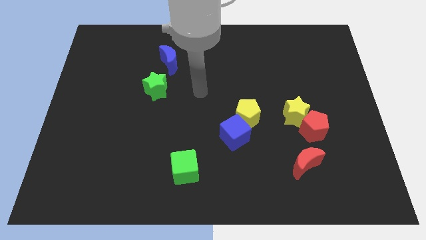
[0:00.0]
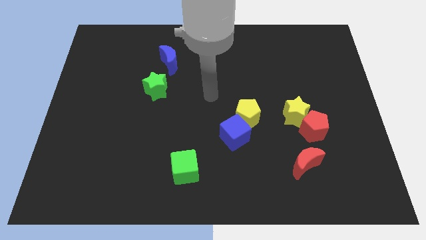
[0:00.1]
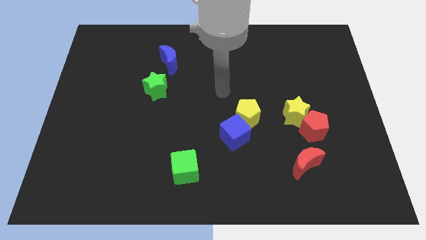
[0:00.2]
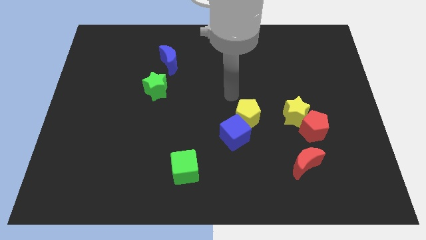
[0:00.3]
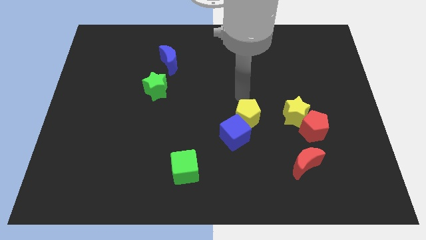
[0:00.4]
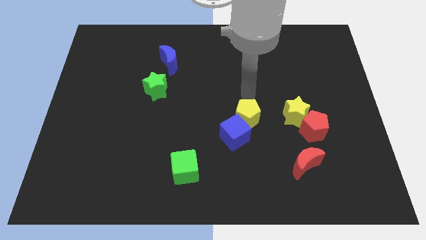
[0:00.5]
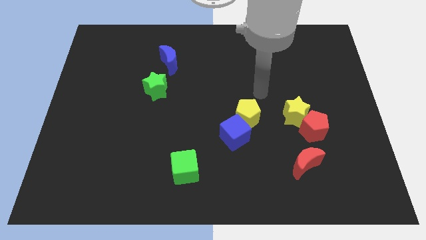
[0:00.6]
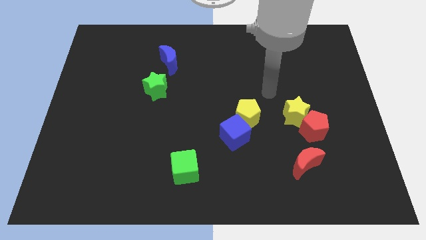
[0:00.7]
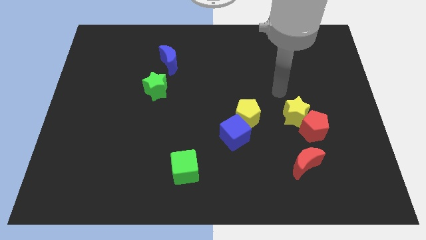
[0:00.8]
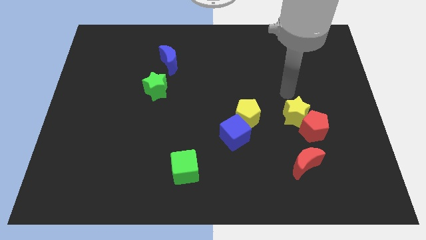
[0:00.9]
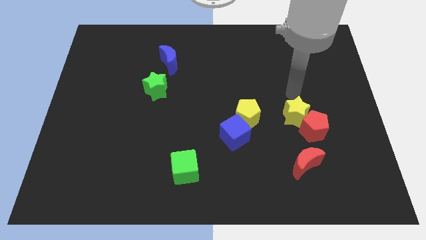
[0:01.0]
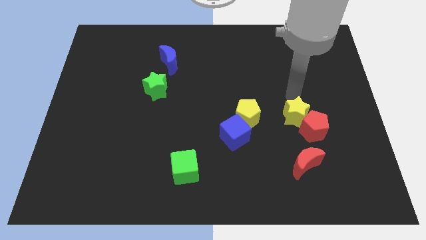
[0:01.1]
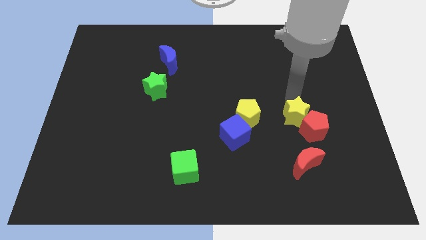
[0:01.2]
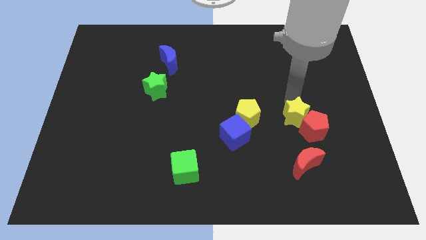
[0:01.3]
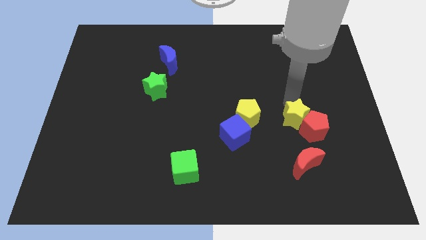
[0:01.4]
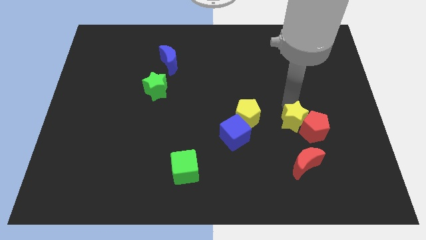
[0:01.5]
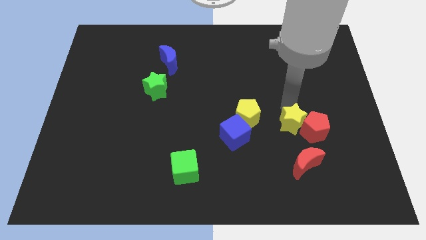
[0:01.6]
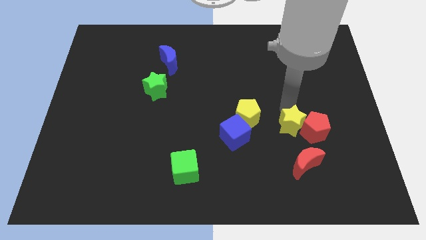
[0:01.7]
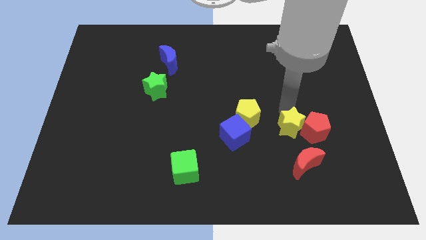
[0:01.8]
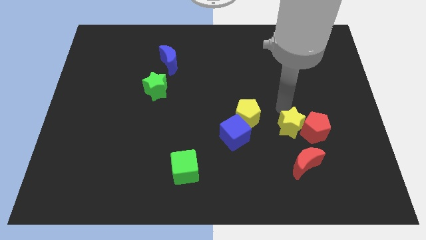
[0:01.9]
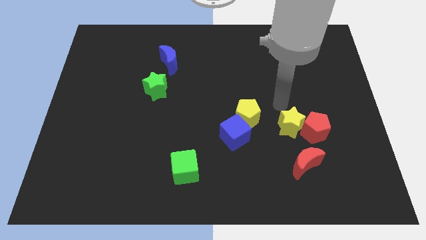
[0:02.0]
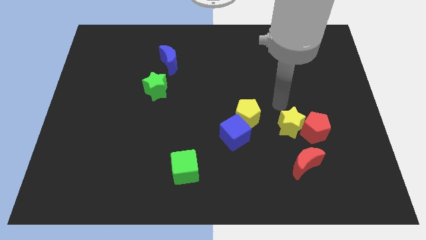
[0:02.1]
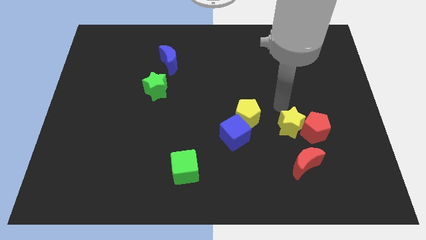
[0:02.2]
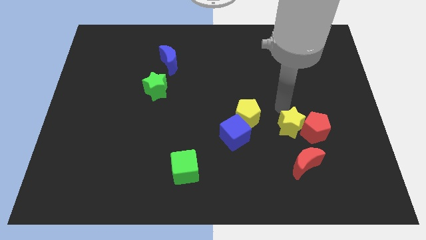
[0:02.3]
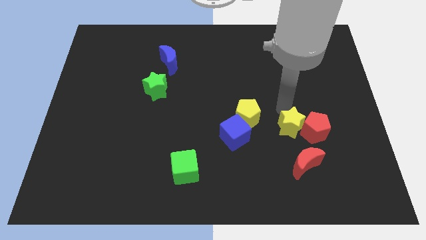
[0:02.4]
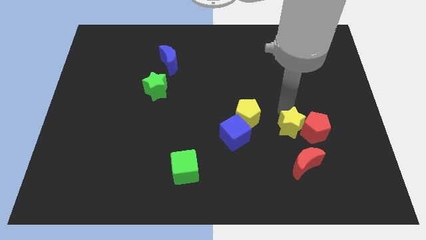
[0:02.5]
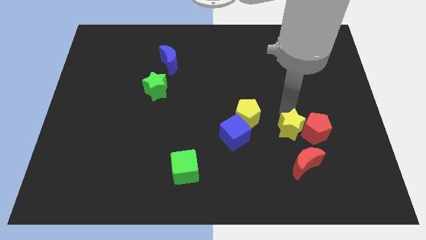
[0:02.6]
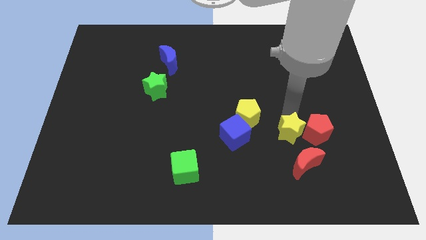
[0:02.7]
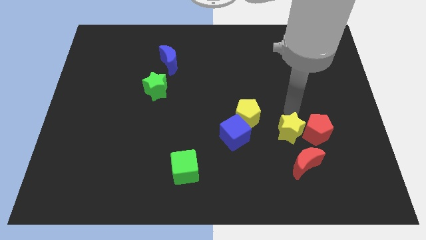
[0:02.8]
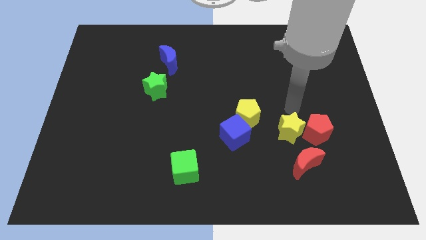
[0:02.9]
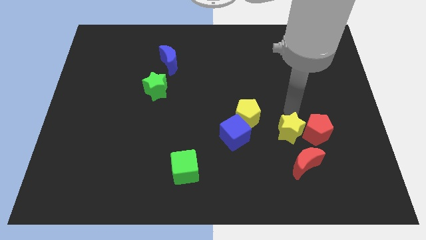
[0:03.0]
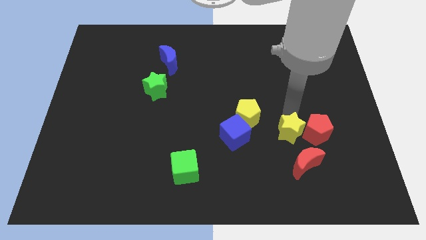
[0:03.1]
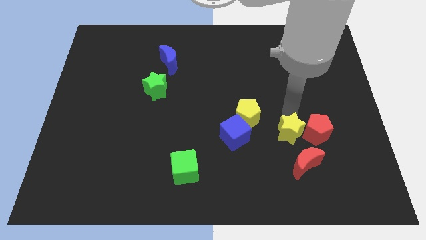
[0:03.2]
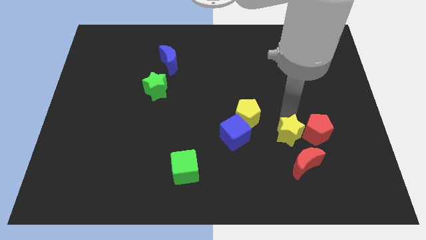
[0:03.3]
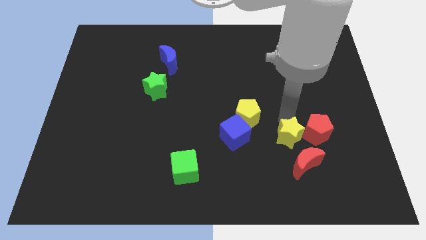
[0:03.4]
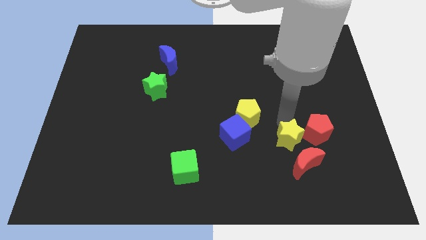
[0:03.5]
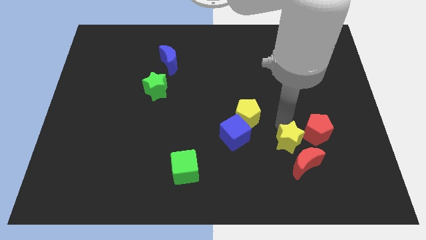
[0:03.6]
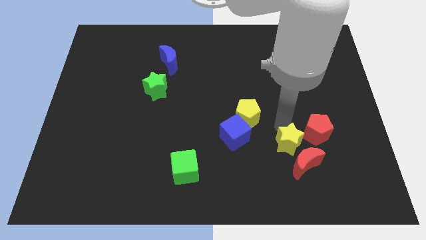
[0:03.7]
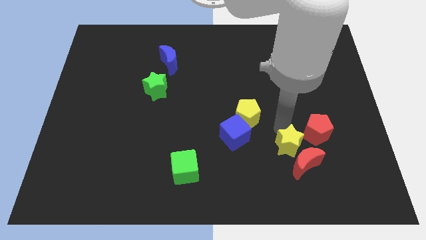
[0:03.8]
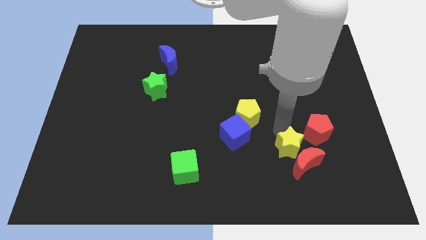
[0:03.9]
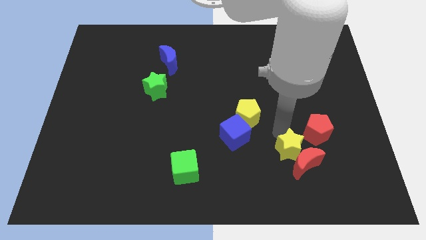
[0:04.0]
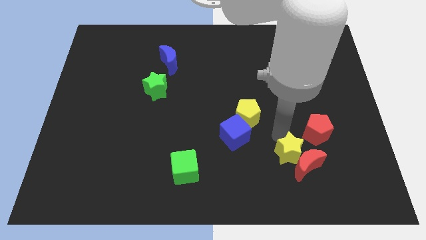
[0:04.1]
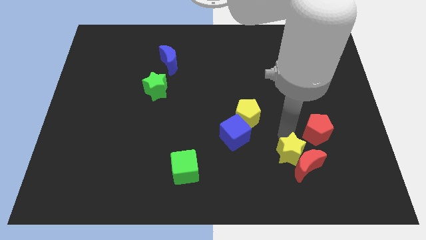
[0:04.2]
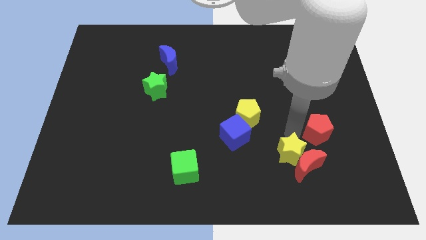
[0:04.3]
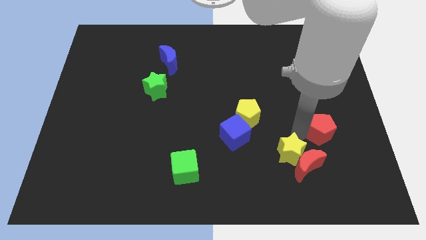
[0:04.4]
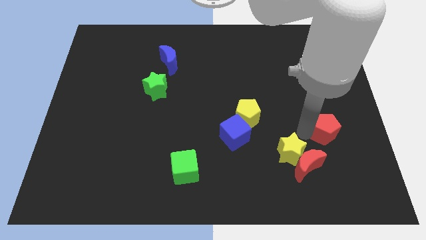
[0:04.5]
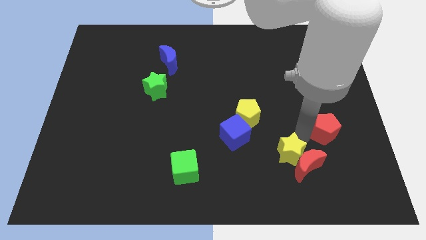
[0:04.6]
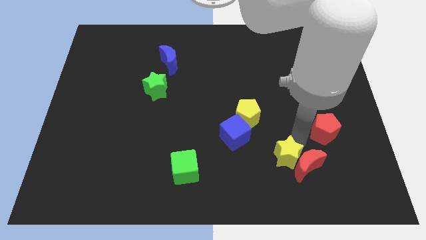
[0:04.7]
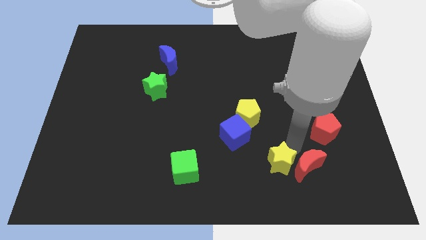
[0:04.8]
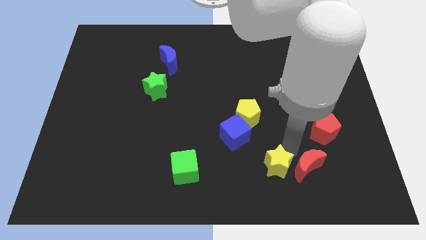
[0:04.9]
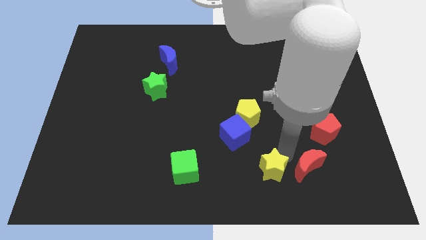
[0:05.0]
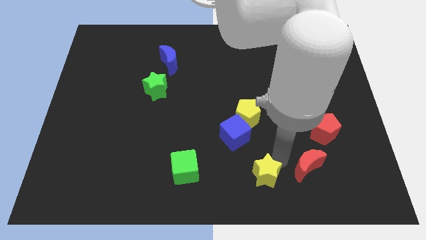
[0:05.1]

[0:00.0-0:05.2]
push the yellow star to the bottom

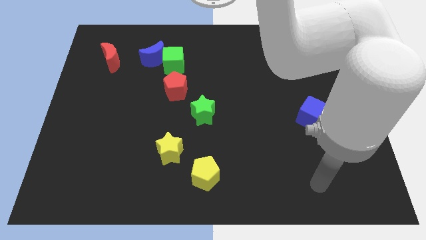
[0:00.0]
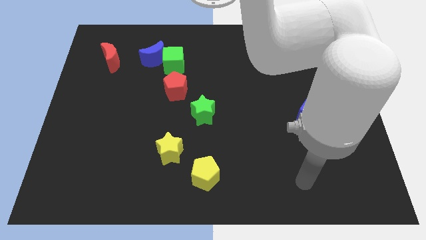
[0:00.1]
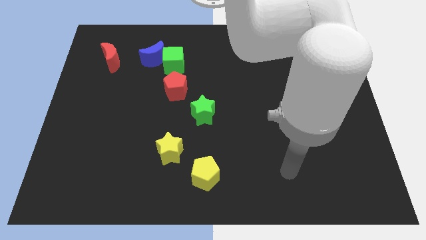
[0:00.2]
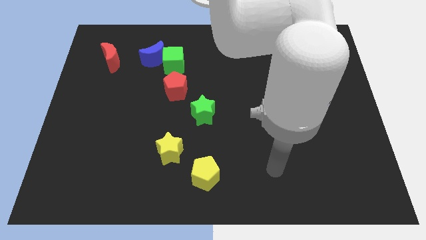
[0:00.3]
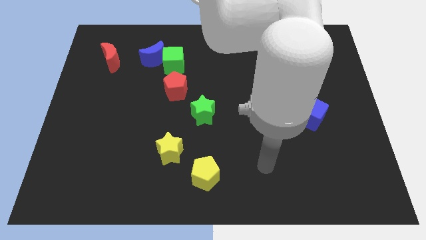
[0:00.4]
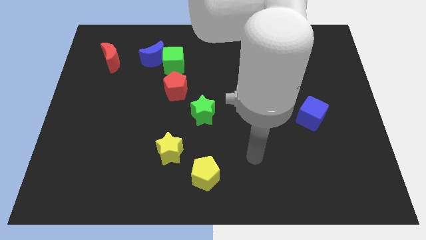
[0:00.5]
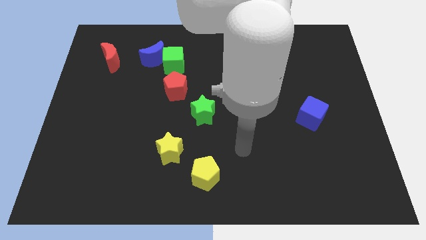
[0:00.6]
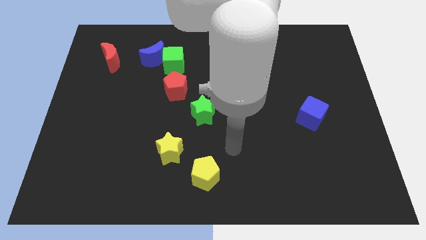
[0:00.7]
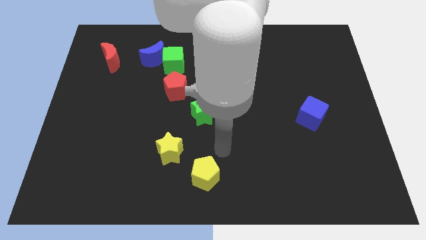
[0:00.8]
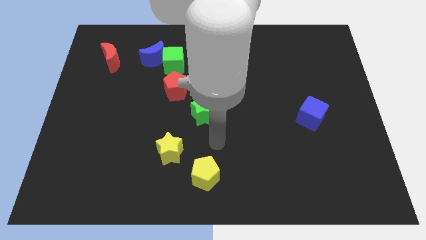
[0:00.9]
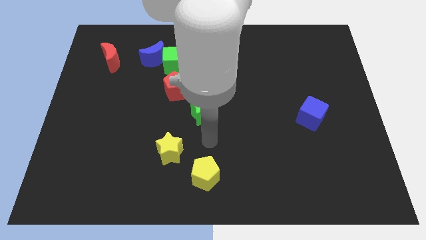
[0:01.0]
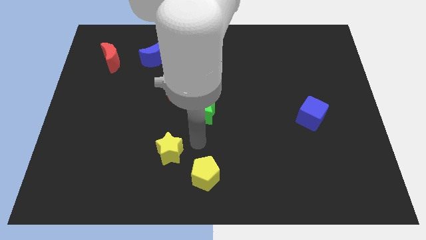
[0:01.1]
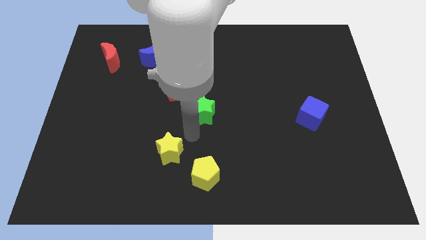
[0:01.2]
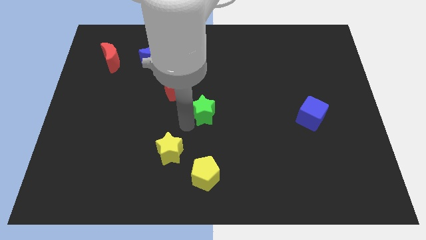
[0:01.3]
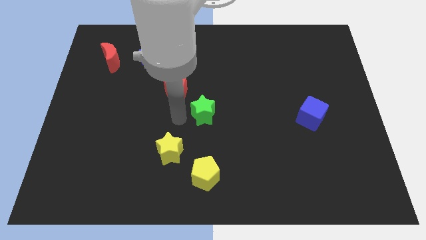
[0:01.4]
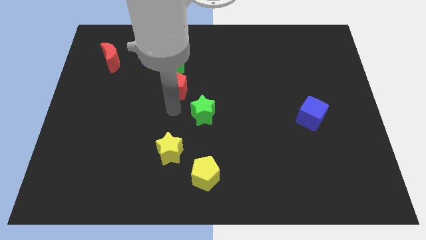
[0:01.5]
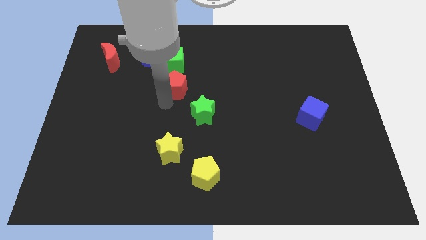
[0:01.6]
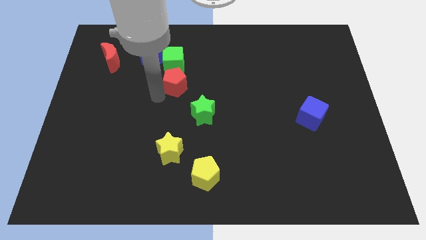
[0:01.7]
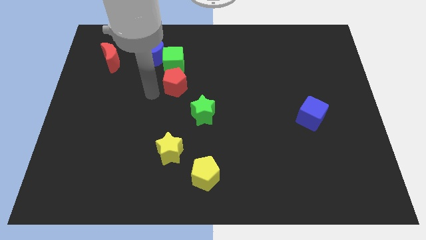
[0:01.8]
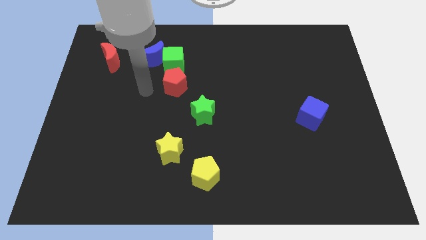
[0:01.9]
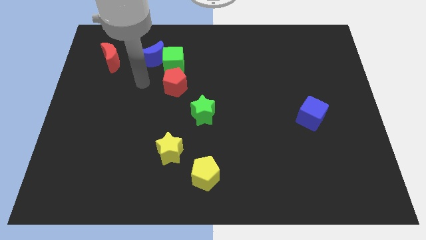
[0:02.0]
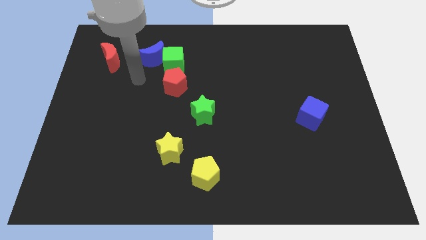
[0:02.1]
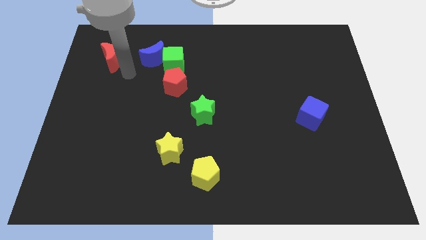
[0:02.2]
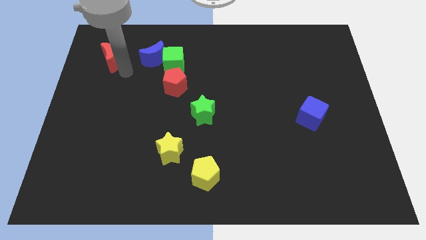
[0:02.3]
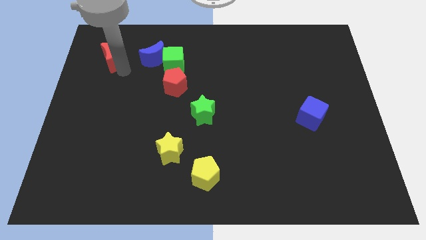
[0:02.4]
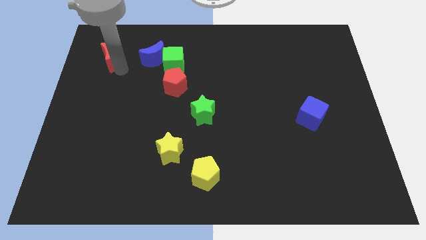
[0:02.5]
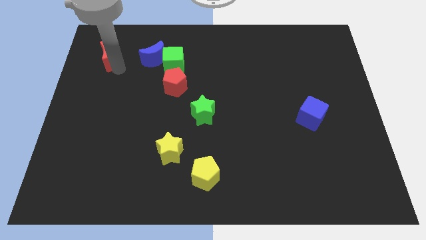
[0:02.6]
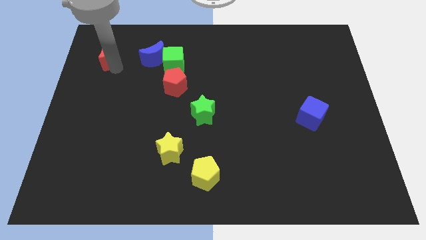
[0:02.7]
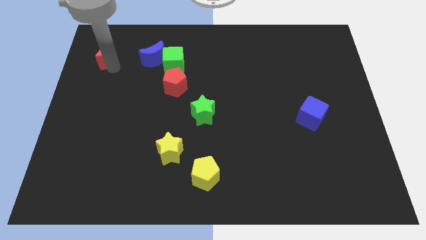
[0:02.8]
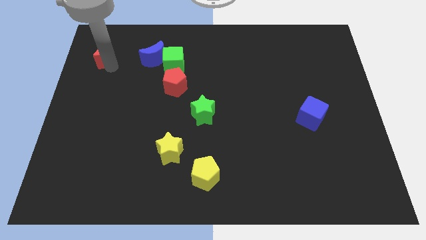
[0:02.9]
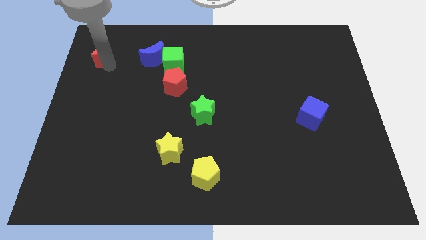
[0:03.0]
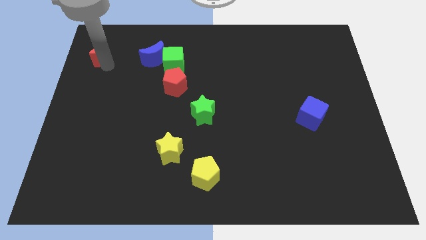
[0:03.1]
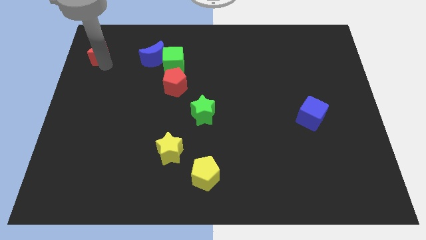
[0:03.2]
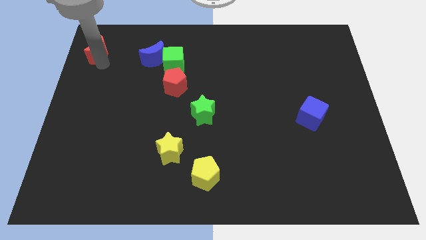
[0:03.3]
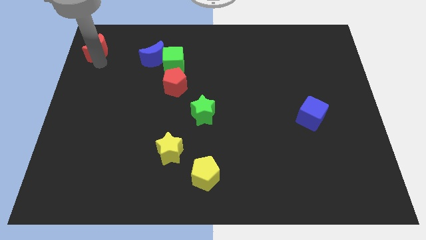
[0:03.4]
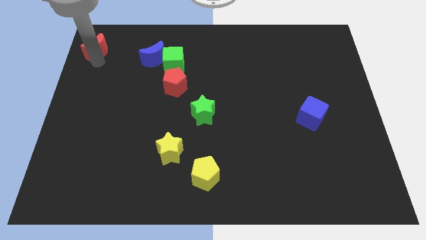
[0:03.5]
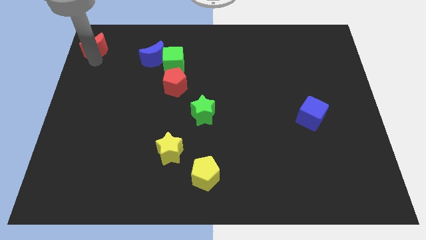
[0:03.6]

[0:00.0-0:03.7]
move the red moon to the top left
